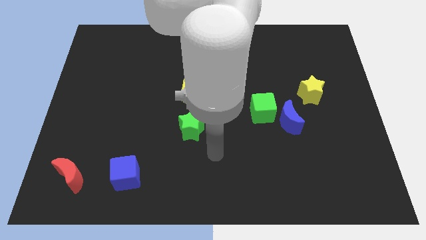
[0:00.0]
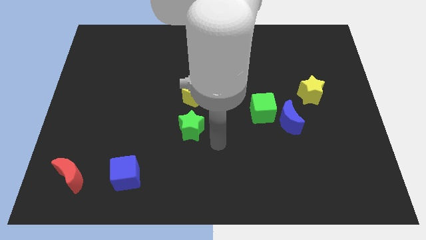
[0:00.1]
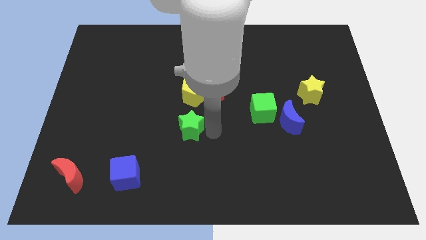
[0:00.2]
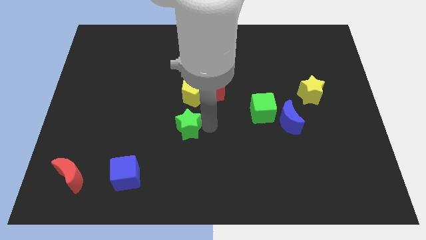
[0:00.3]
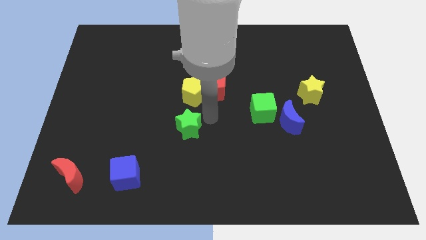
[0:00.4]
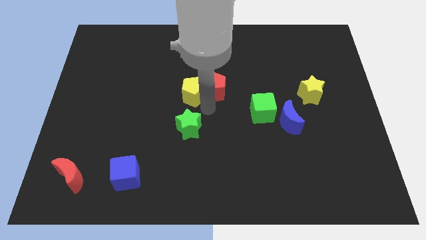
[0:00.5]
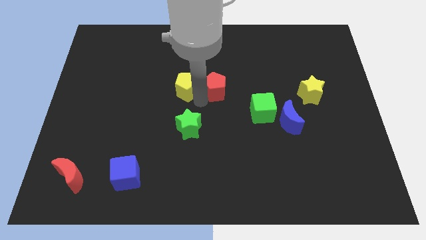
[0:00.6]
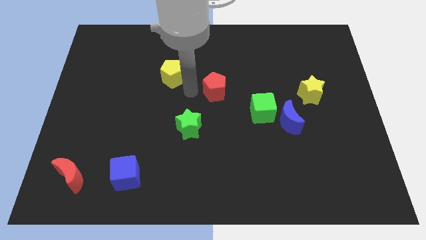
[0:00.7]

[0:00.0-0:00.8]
separate the red pentagon from the yellow pentagon

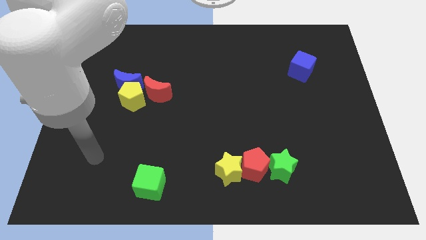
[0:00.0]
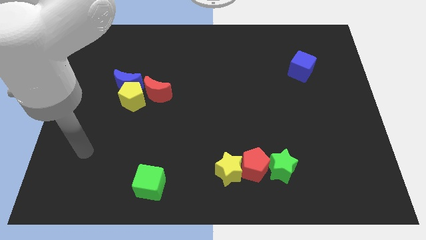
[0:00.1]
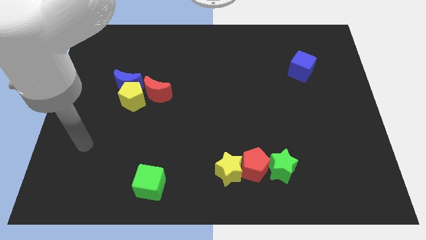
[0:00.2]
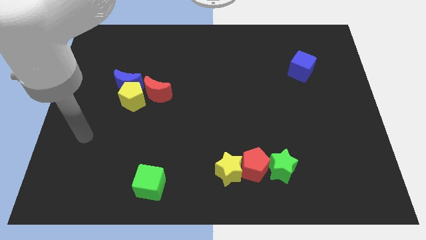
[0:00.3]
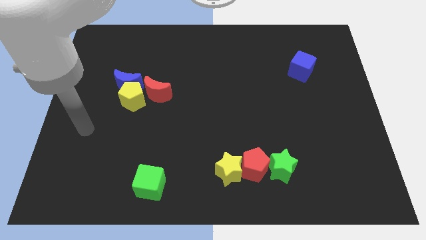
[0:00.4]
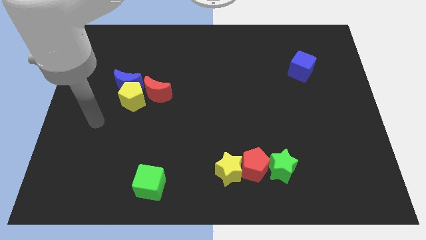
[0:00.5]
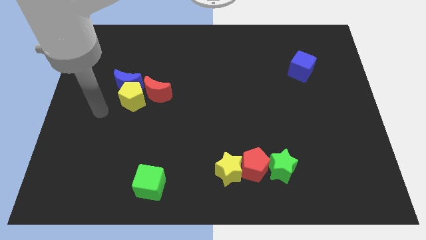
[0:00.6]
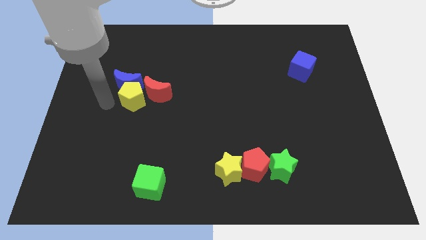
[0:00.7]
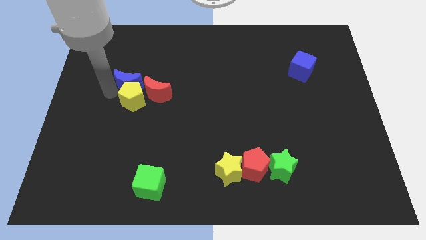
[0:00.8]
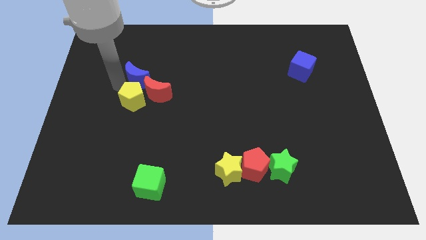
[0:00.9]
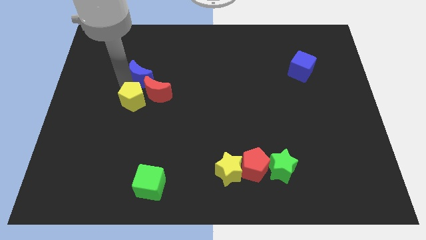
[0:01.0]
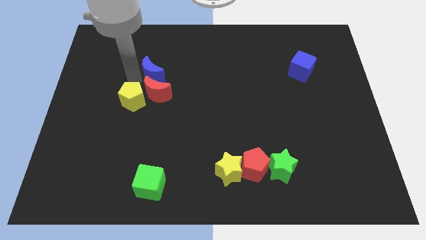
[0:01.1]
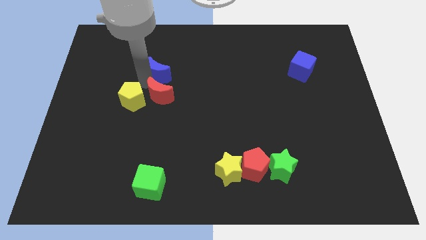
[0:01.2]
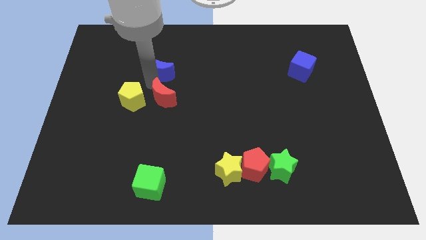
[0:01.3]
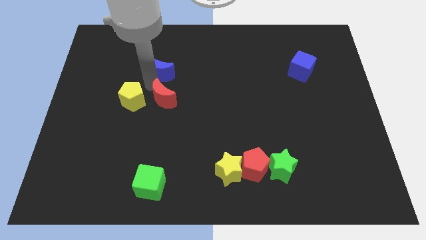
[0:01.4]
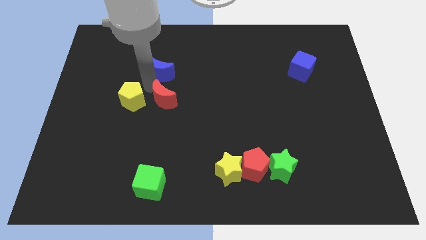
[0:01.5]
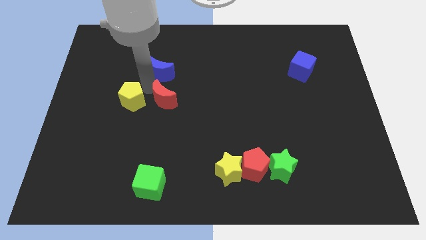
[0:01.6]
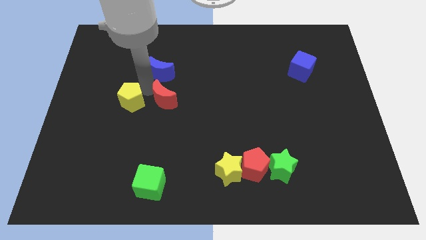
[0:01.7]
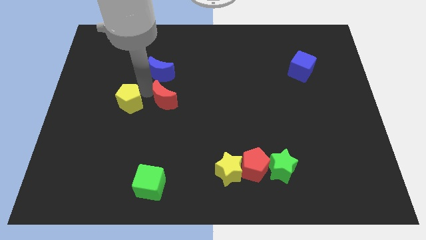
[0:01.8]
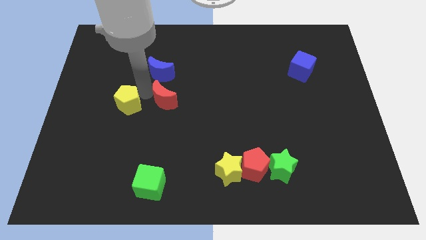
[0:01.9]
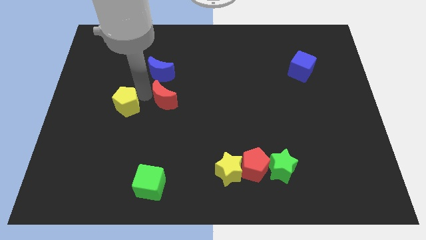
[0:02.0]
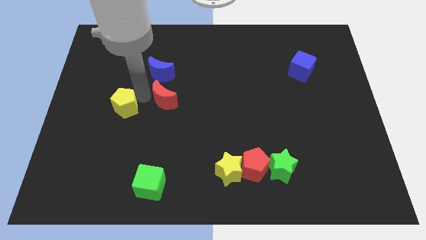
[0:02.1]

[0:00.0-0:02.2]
move the yellow pentagon away from the blue moon and red moon

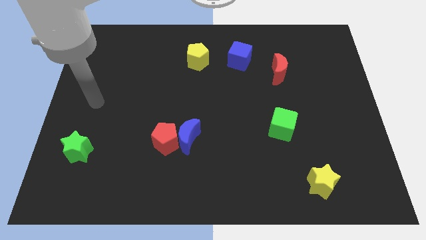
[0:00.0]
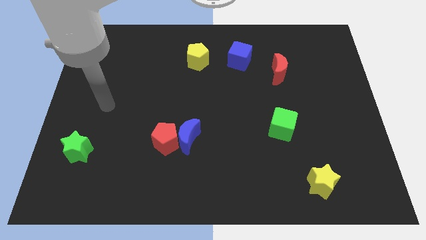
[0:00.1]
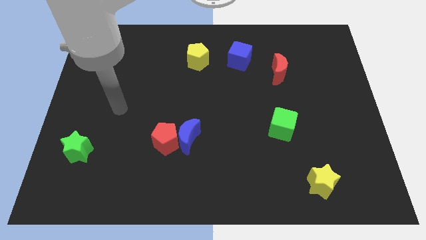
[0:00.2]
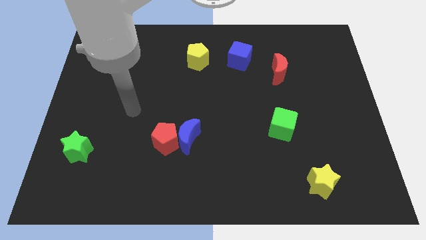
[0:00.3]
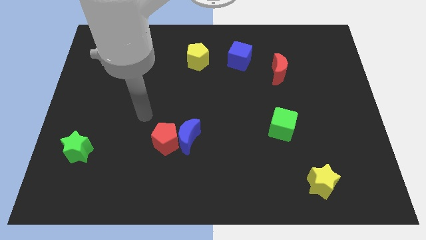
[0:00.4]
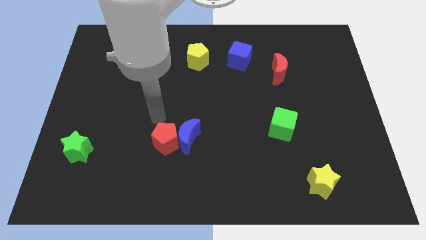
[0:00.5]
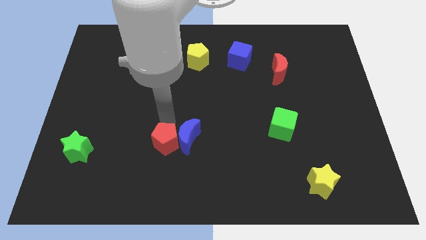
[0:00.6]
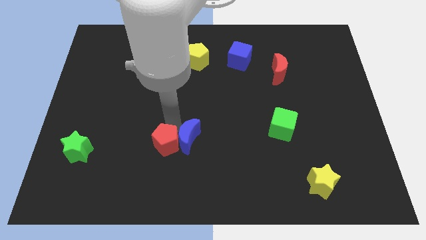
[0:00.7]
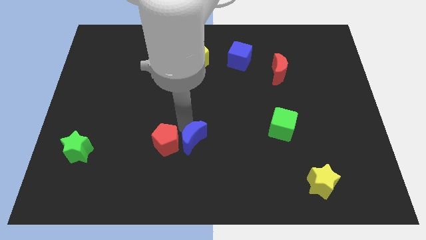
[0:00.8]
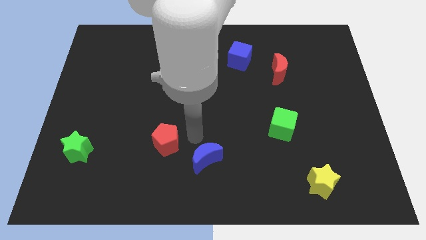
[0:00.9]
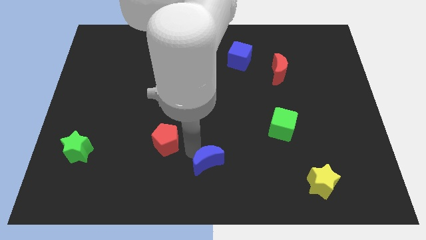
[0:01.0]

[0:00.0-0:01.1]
pull the red pentagon apart from the blue moon

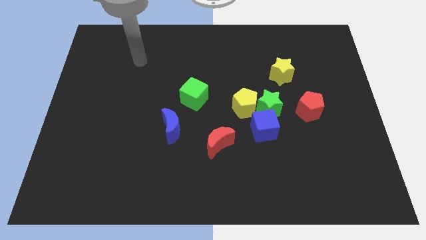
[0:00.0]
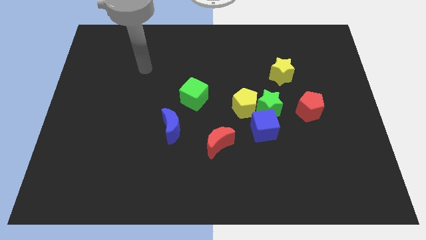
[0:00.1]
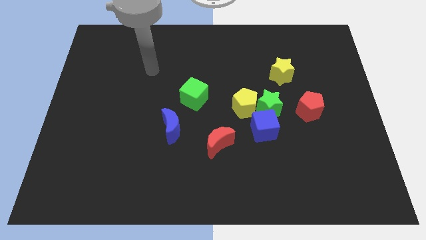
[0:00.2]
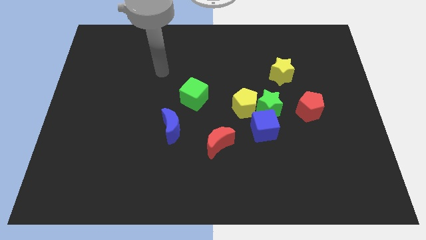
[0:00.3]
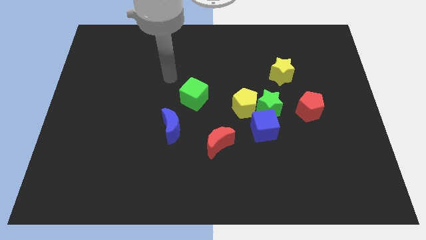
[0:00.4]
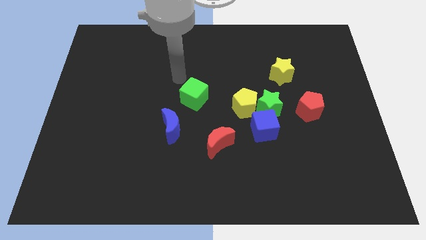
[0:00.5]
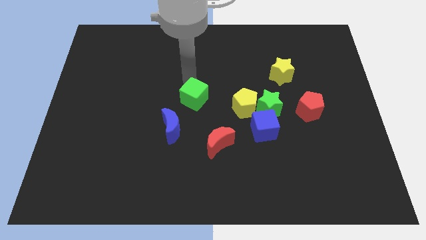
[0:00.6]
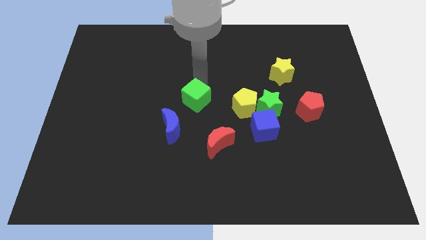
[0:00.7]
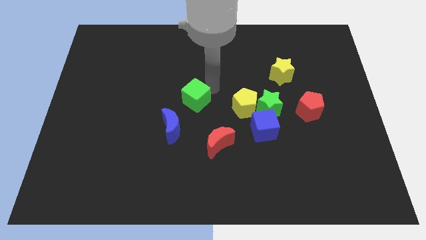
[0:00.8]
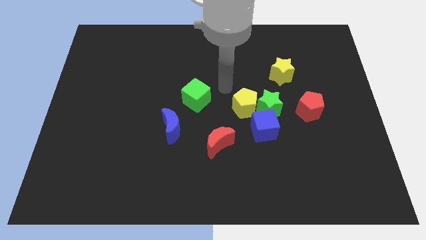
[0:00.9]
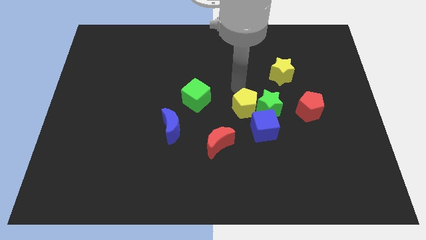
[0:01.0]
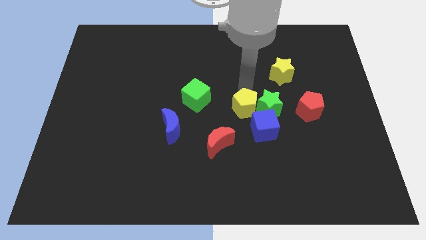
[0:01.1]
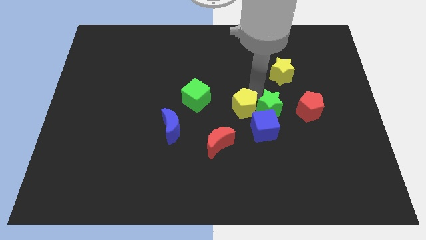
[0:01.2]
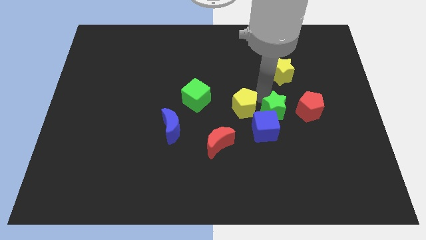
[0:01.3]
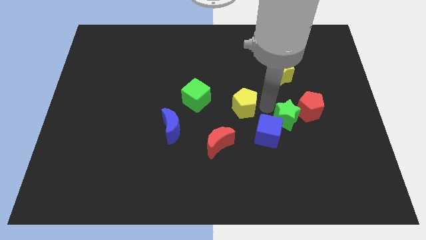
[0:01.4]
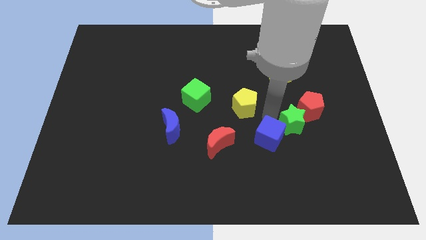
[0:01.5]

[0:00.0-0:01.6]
separate the yellow pentagon from the green star and blue cube

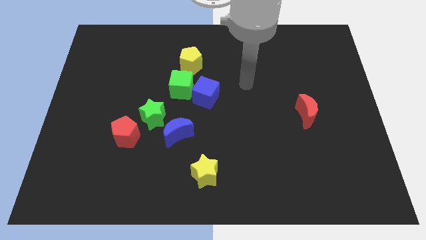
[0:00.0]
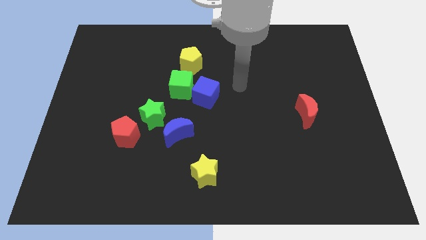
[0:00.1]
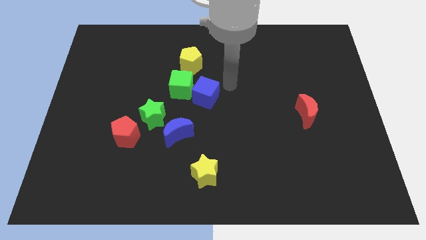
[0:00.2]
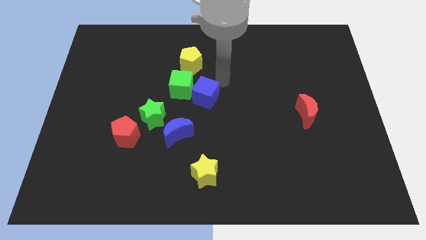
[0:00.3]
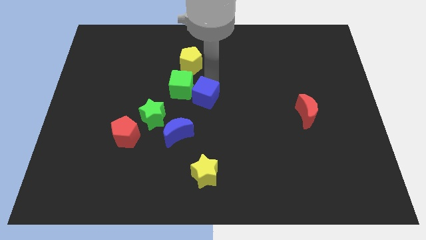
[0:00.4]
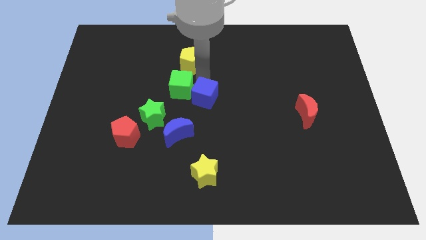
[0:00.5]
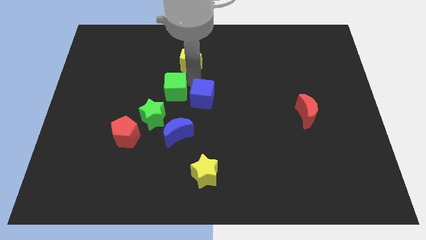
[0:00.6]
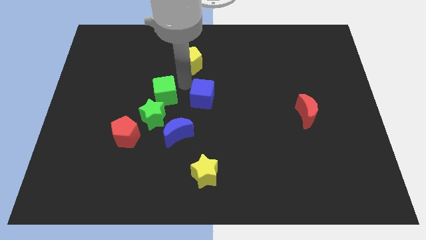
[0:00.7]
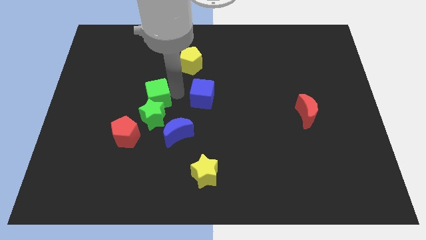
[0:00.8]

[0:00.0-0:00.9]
move the blue cube away from the green cube

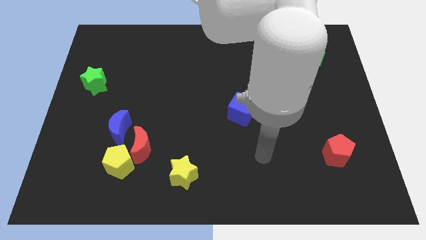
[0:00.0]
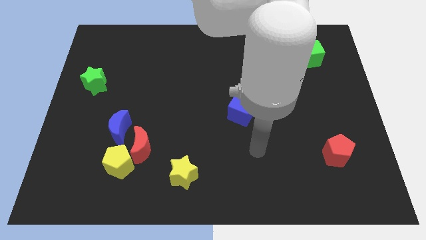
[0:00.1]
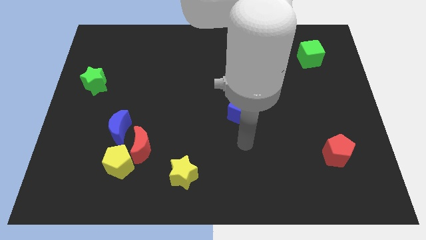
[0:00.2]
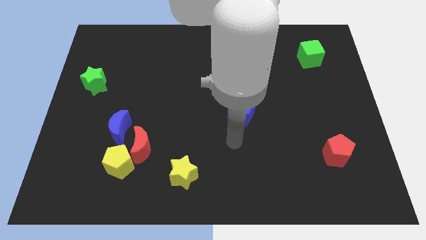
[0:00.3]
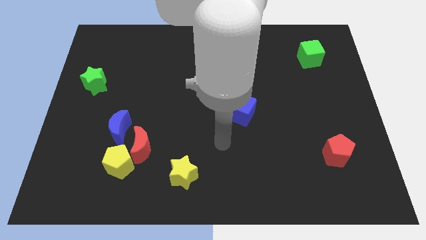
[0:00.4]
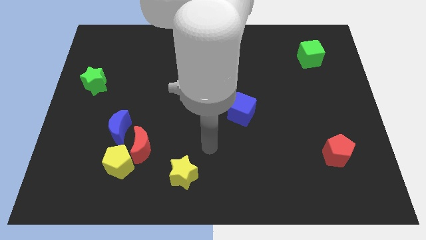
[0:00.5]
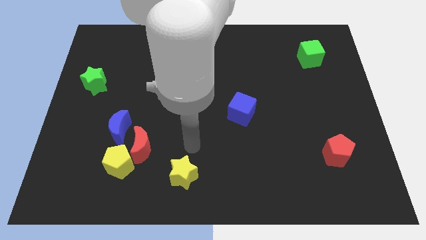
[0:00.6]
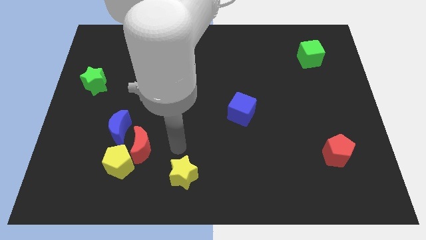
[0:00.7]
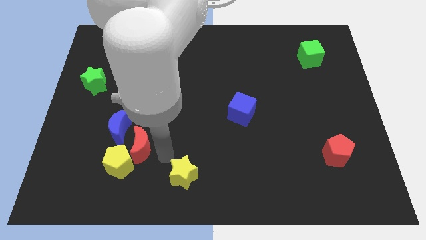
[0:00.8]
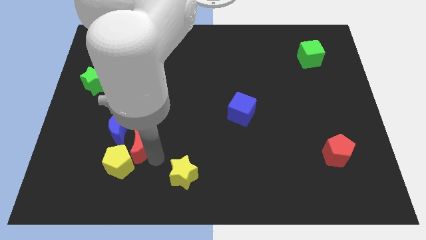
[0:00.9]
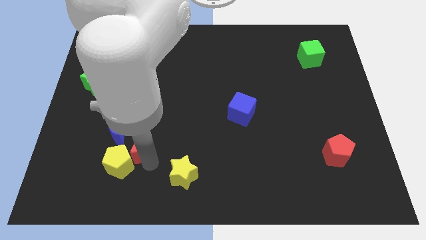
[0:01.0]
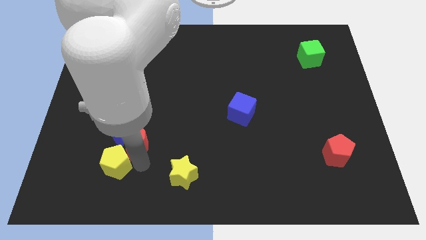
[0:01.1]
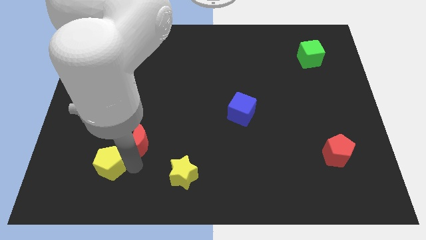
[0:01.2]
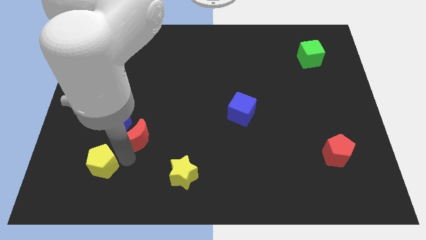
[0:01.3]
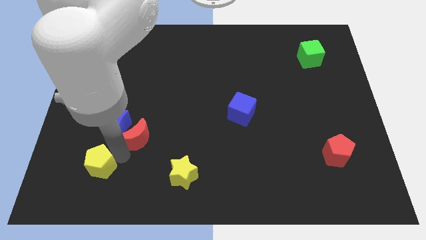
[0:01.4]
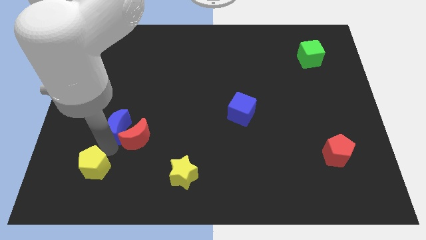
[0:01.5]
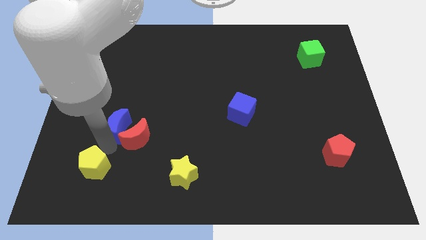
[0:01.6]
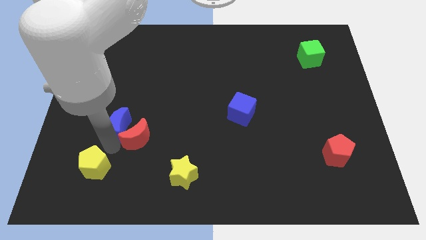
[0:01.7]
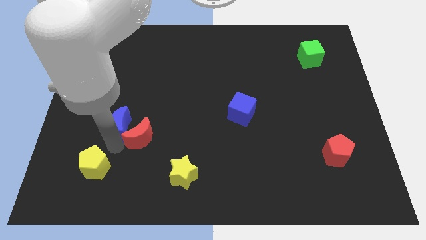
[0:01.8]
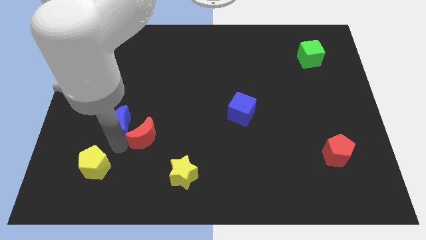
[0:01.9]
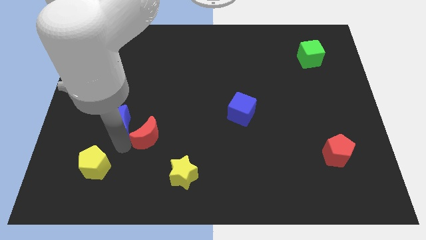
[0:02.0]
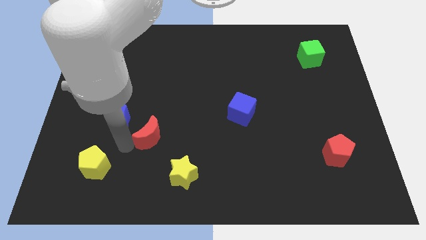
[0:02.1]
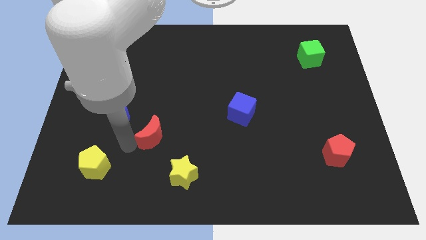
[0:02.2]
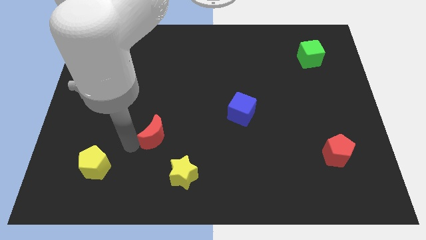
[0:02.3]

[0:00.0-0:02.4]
separate the red moon from the yellow pentagon and blue moon

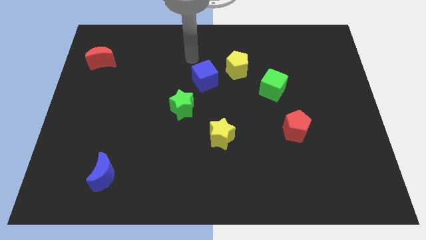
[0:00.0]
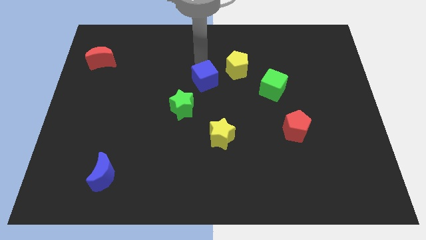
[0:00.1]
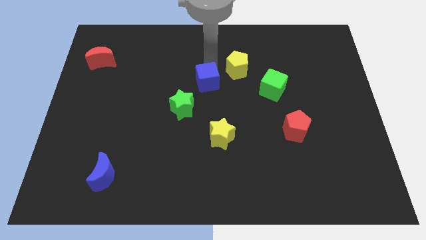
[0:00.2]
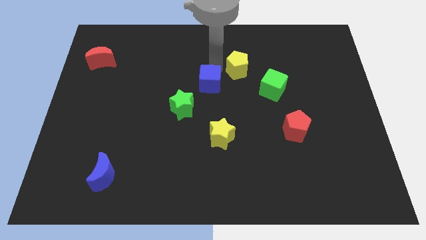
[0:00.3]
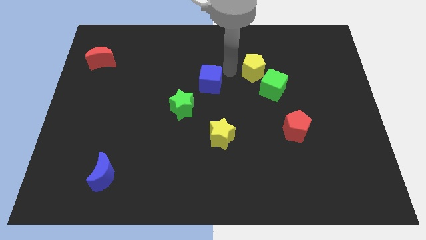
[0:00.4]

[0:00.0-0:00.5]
move the blue cube away from the yellow pentagon
